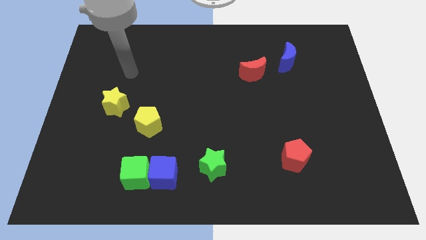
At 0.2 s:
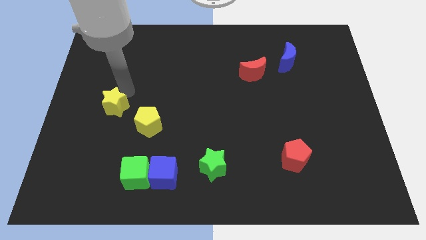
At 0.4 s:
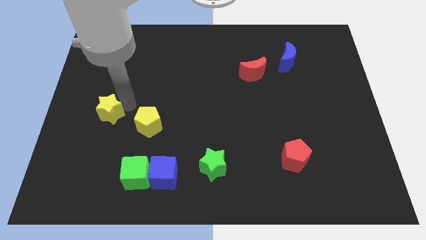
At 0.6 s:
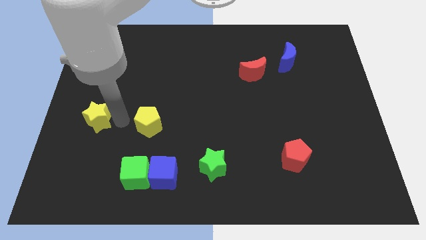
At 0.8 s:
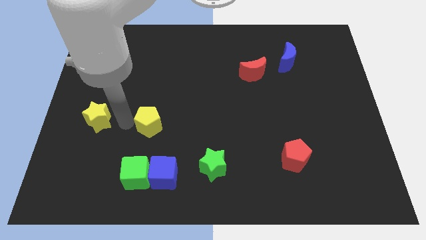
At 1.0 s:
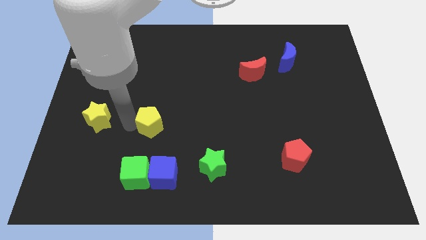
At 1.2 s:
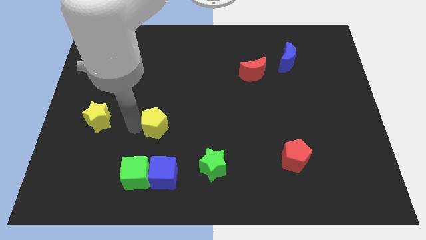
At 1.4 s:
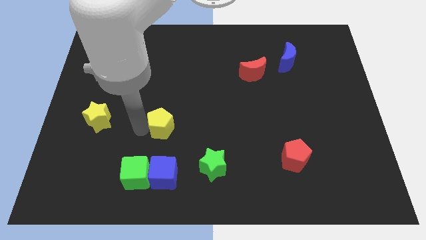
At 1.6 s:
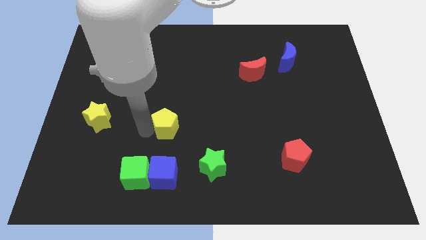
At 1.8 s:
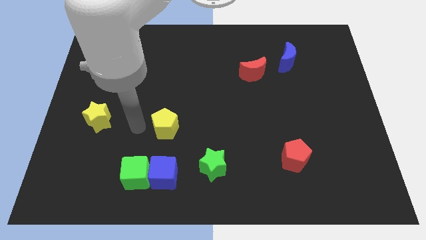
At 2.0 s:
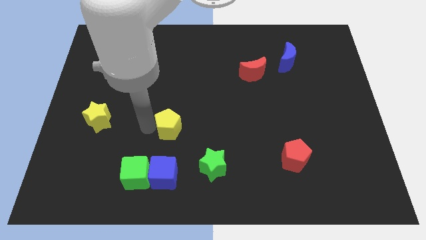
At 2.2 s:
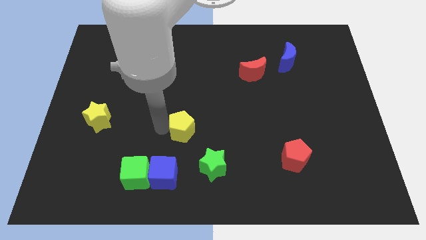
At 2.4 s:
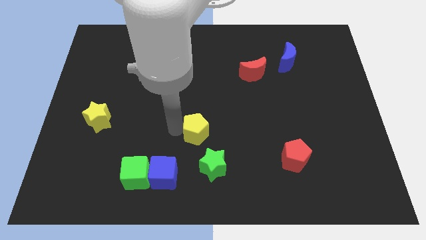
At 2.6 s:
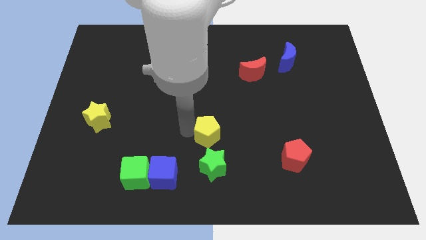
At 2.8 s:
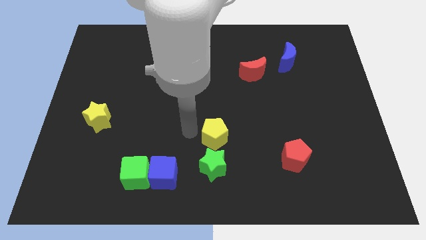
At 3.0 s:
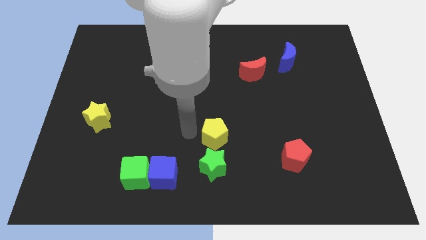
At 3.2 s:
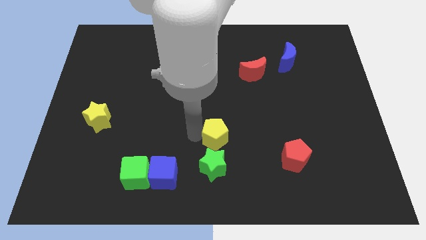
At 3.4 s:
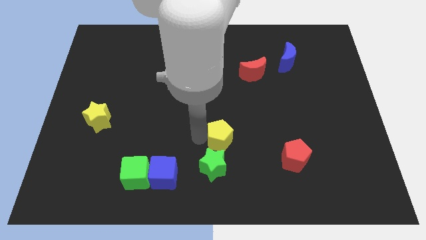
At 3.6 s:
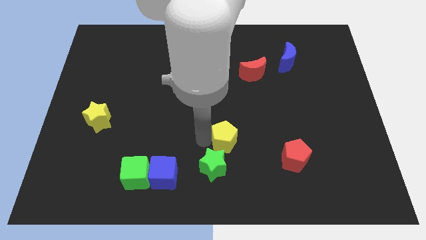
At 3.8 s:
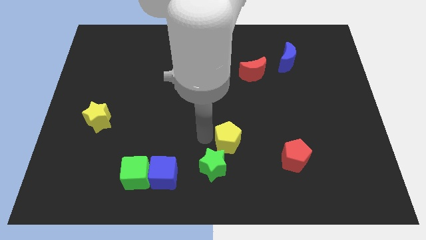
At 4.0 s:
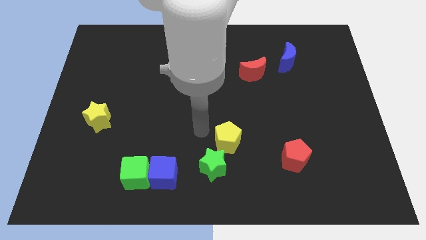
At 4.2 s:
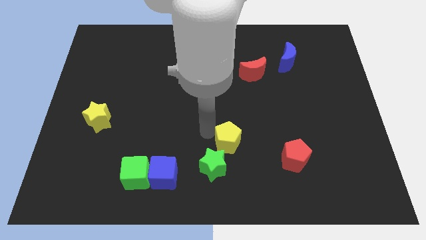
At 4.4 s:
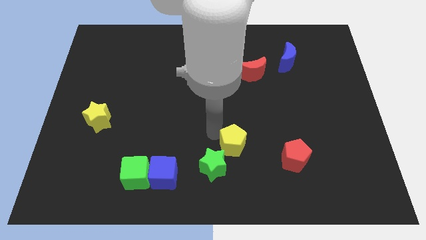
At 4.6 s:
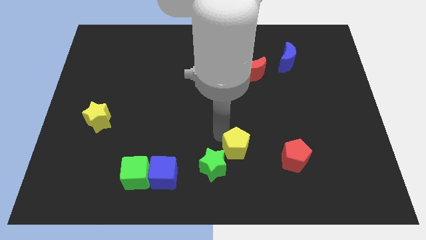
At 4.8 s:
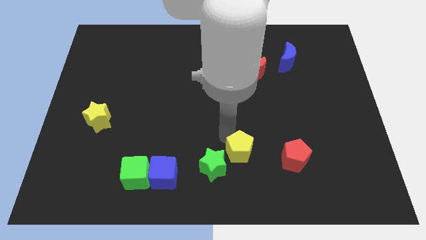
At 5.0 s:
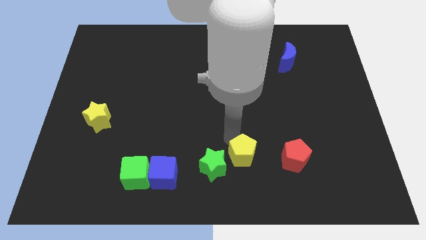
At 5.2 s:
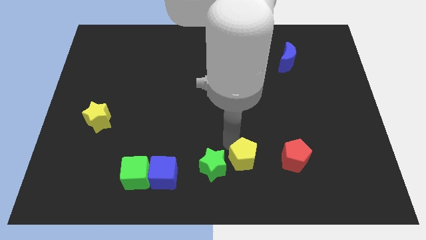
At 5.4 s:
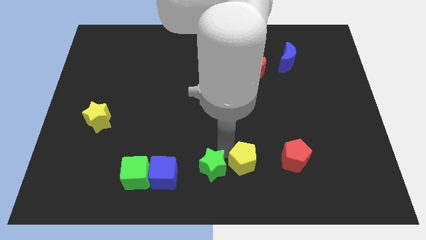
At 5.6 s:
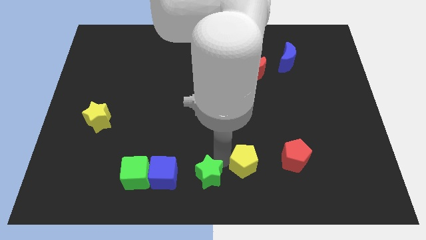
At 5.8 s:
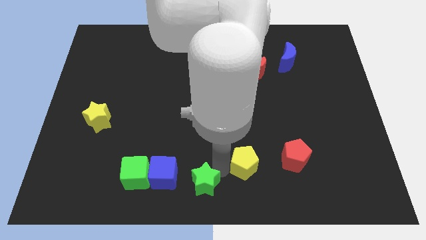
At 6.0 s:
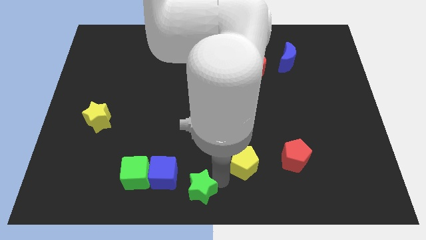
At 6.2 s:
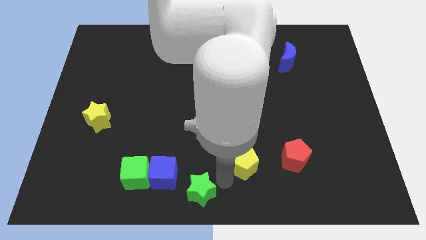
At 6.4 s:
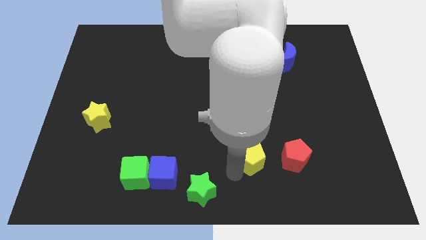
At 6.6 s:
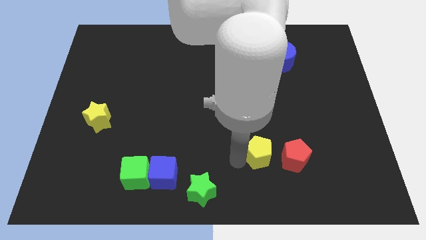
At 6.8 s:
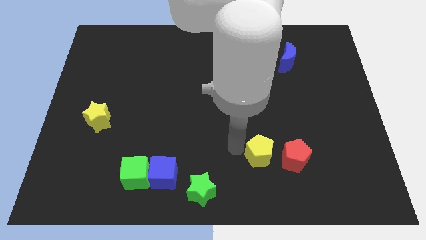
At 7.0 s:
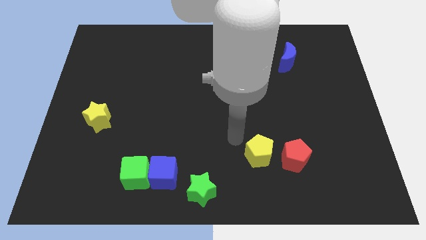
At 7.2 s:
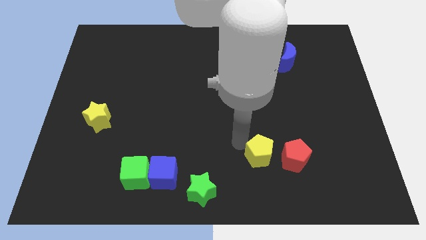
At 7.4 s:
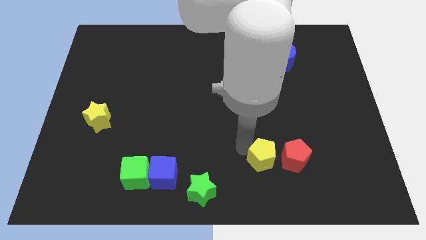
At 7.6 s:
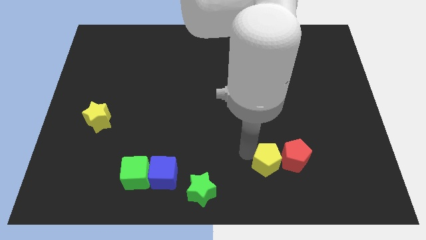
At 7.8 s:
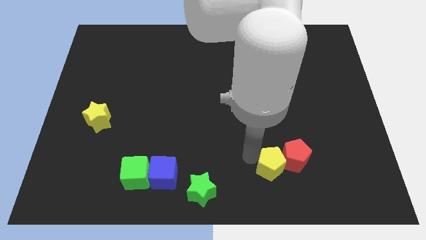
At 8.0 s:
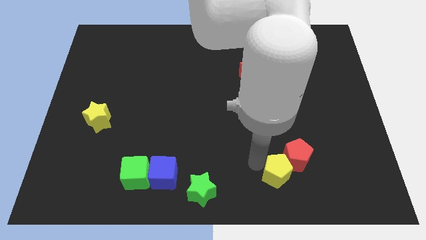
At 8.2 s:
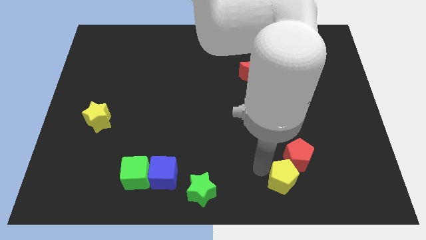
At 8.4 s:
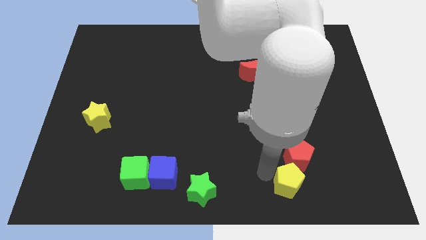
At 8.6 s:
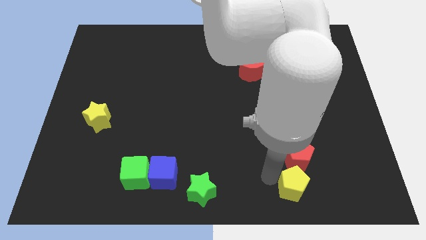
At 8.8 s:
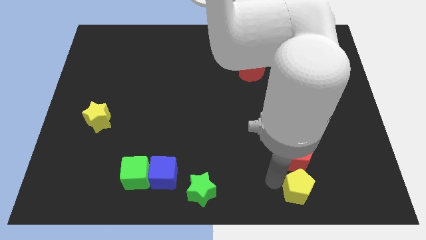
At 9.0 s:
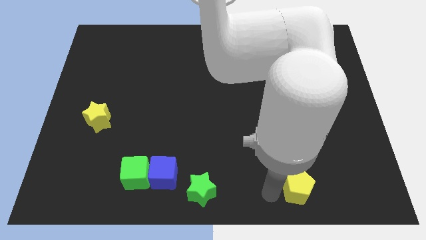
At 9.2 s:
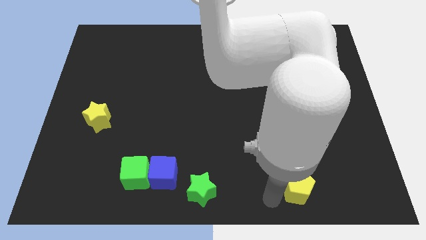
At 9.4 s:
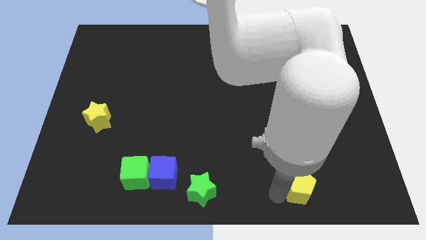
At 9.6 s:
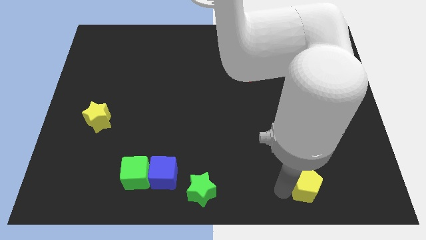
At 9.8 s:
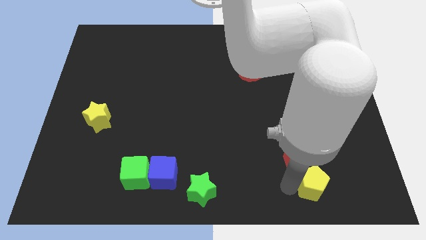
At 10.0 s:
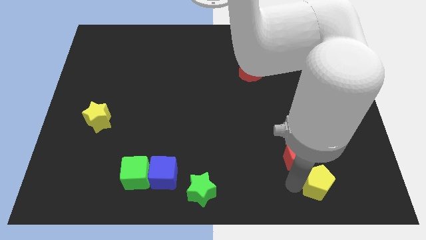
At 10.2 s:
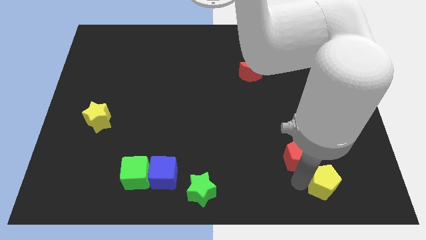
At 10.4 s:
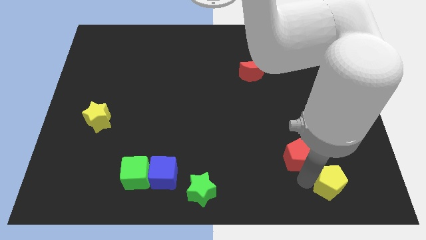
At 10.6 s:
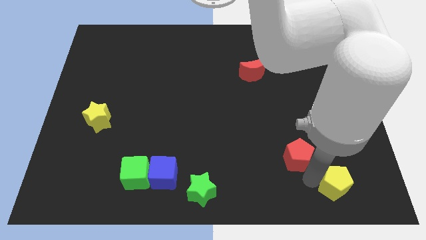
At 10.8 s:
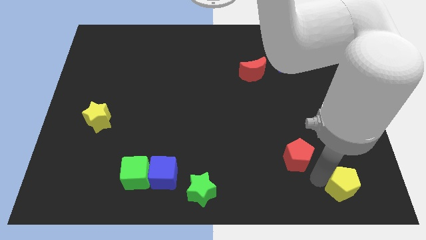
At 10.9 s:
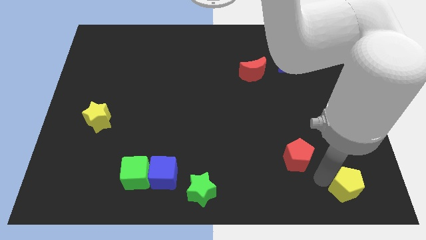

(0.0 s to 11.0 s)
put the yellow pentagon to the bottom right of the board

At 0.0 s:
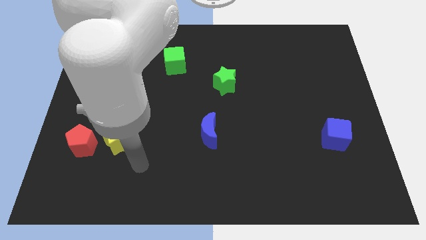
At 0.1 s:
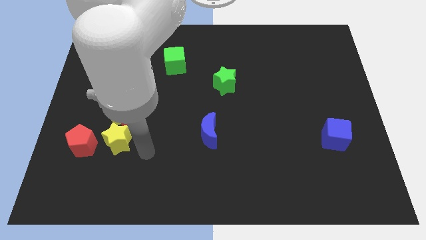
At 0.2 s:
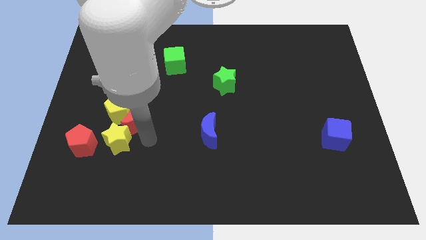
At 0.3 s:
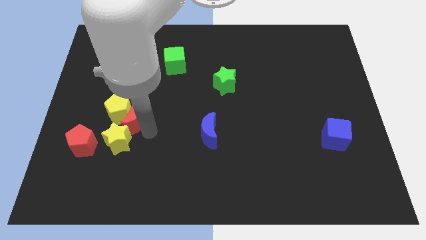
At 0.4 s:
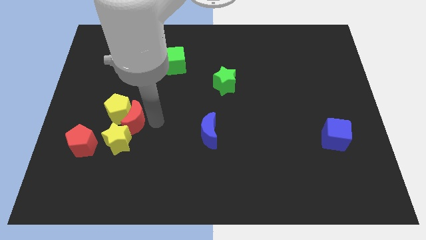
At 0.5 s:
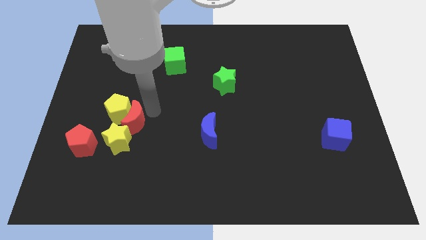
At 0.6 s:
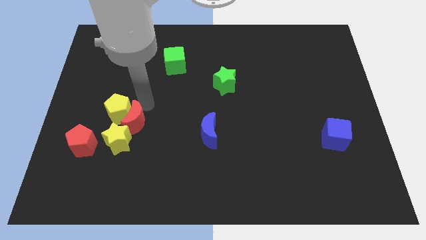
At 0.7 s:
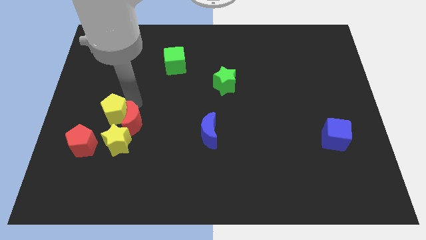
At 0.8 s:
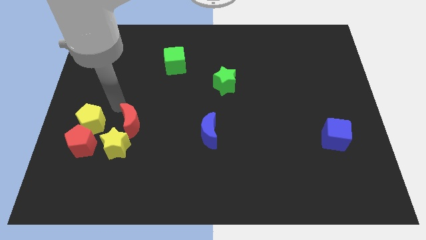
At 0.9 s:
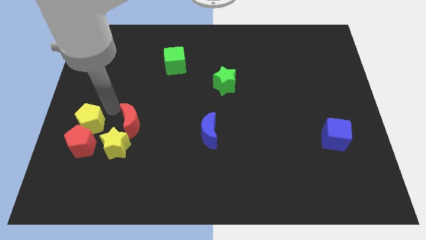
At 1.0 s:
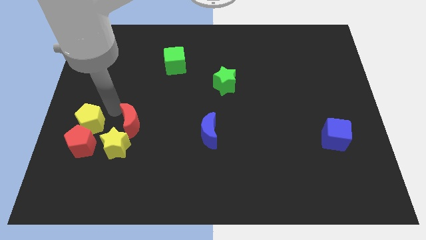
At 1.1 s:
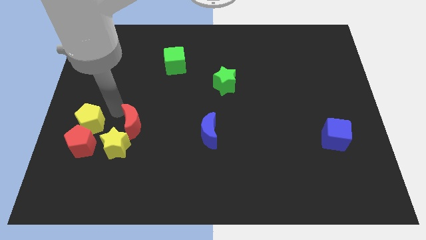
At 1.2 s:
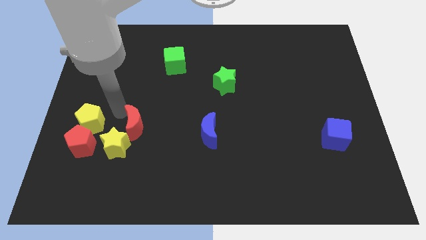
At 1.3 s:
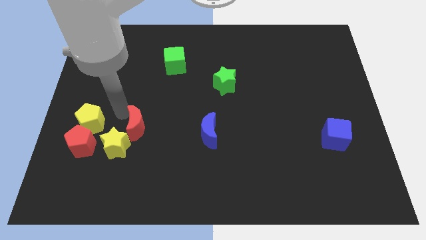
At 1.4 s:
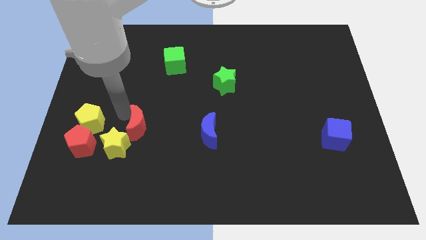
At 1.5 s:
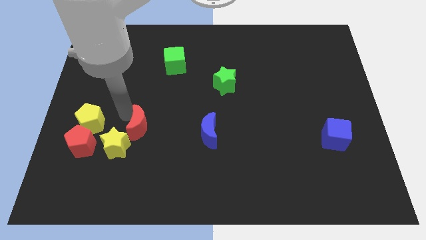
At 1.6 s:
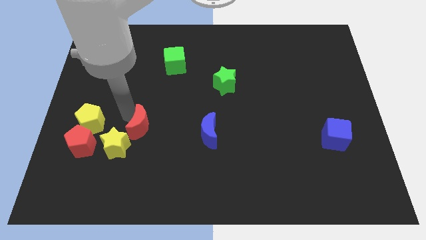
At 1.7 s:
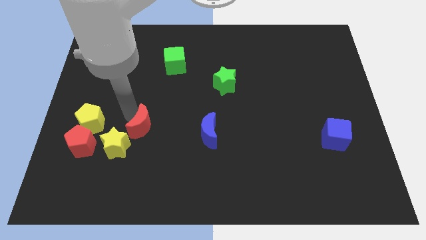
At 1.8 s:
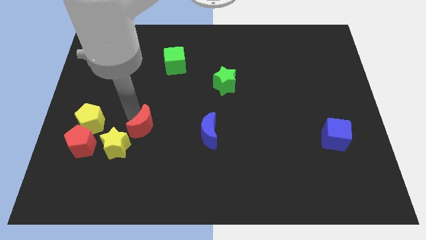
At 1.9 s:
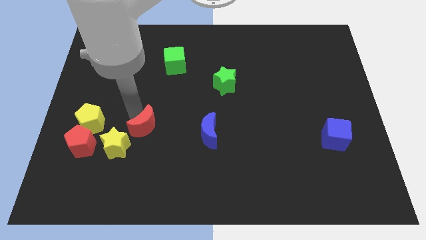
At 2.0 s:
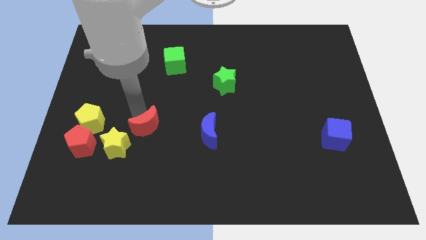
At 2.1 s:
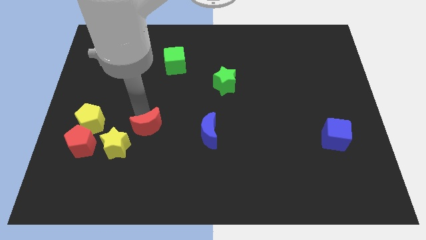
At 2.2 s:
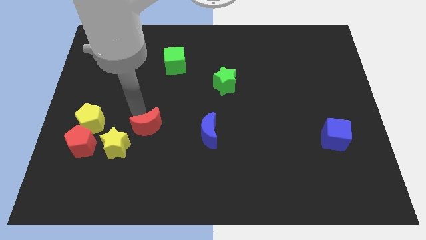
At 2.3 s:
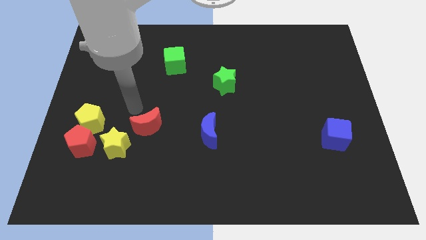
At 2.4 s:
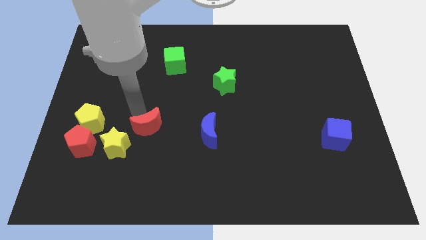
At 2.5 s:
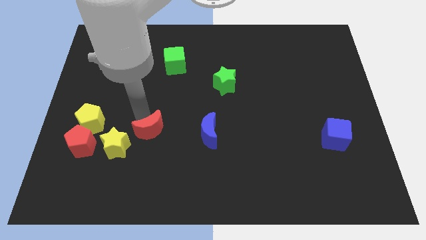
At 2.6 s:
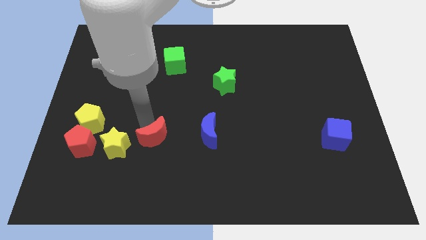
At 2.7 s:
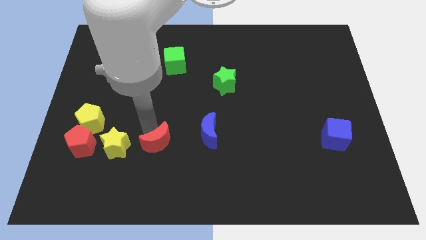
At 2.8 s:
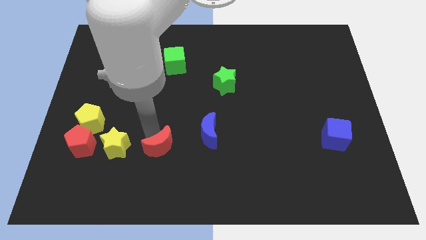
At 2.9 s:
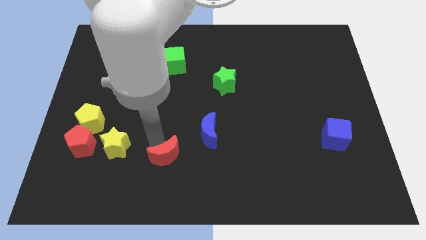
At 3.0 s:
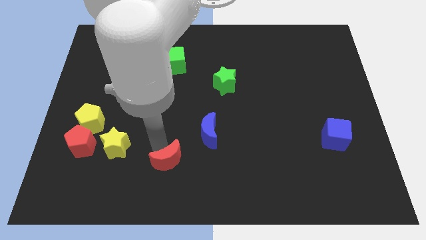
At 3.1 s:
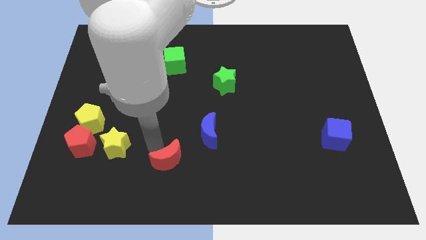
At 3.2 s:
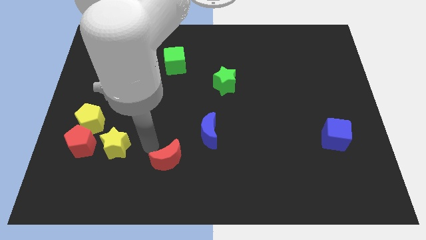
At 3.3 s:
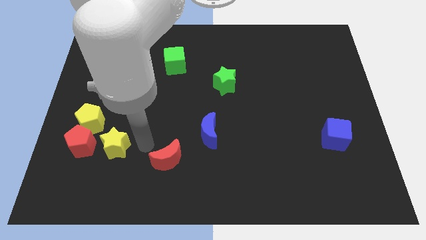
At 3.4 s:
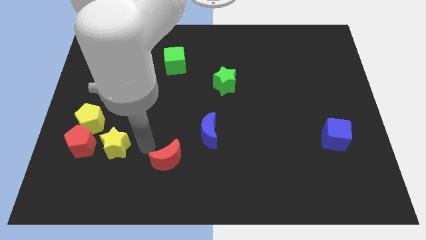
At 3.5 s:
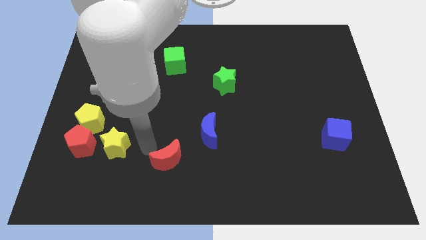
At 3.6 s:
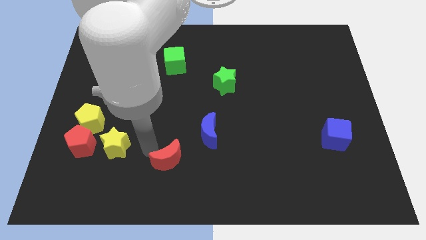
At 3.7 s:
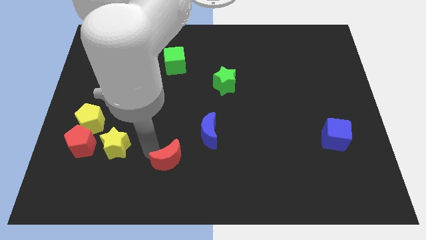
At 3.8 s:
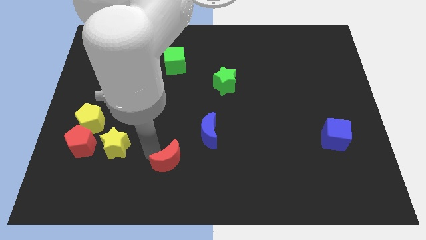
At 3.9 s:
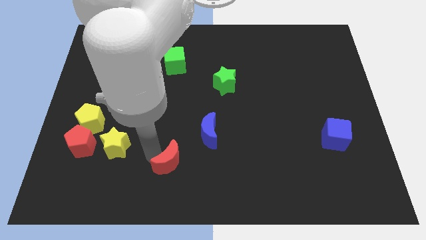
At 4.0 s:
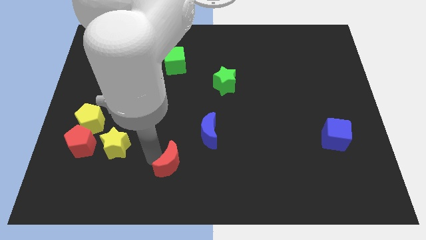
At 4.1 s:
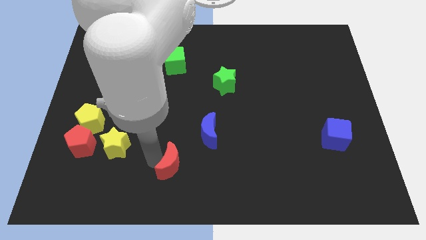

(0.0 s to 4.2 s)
push the red moon to the bottom side
